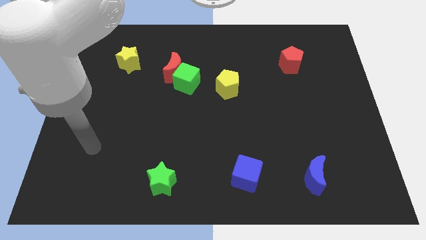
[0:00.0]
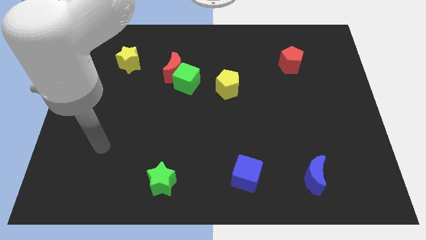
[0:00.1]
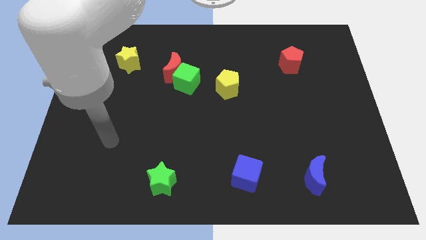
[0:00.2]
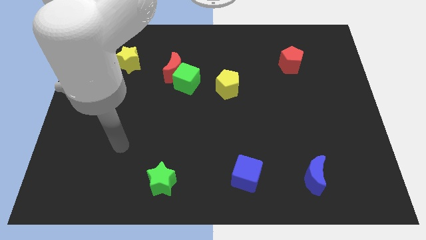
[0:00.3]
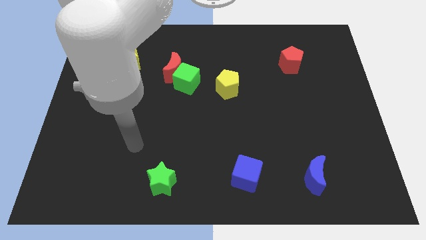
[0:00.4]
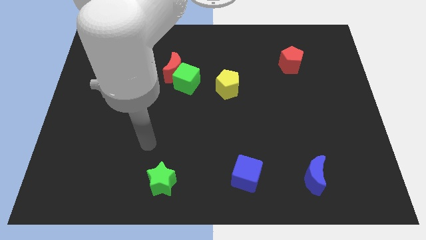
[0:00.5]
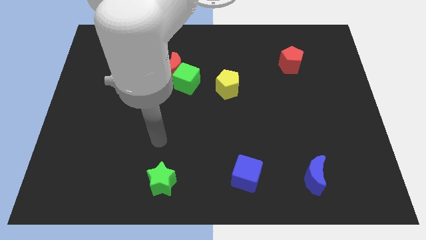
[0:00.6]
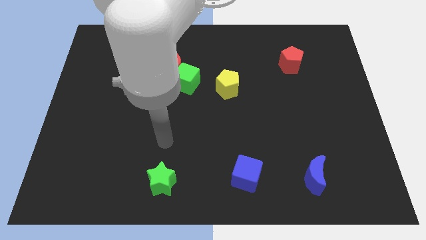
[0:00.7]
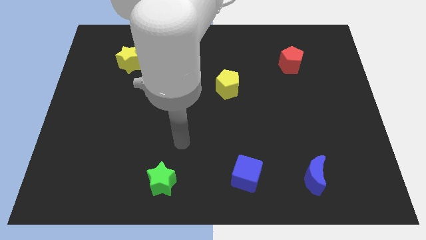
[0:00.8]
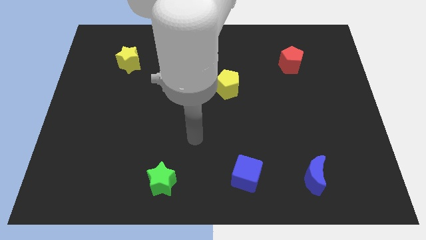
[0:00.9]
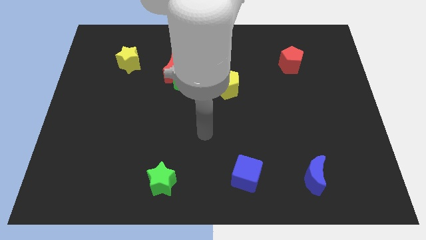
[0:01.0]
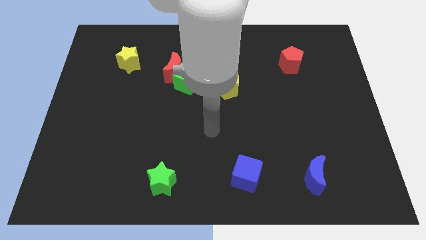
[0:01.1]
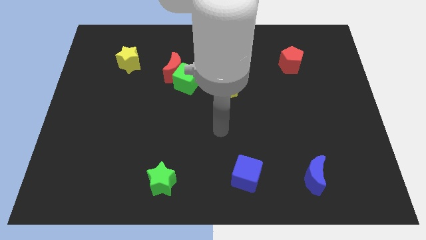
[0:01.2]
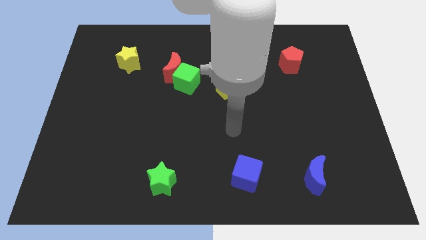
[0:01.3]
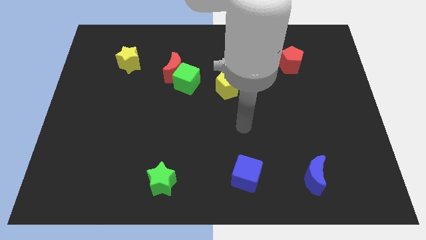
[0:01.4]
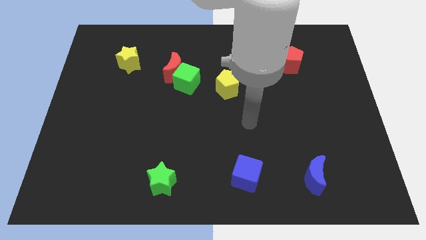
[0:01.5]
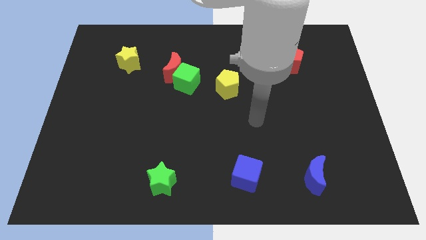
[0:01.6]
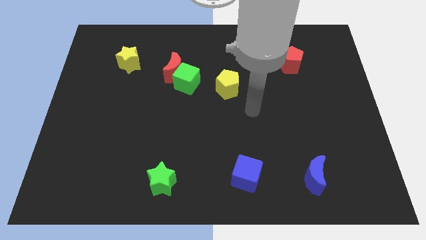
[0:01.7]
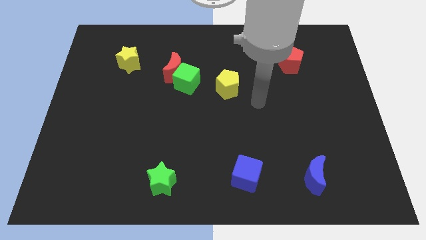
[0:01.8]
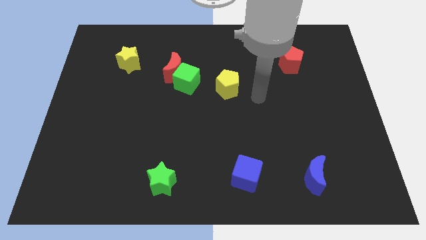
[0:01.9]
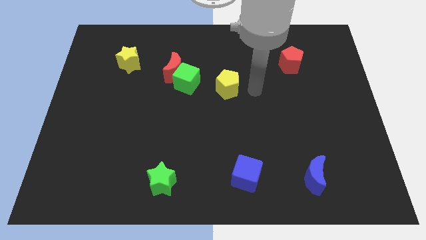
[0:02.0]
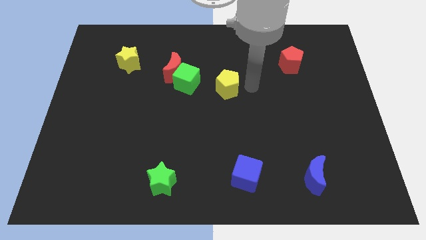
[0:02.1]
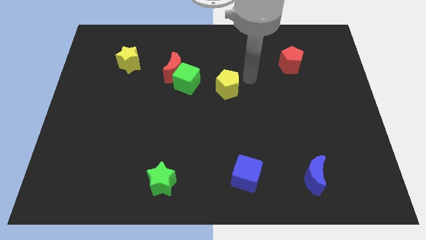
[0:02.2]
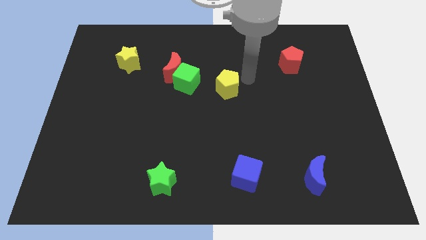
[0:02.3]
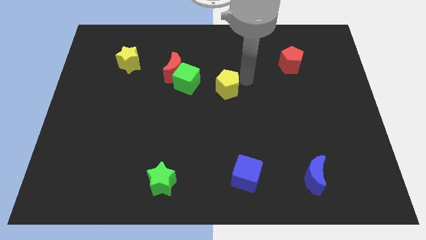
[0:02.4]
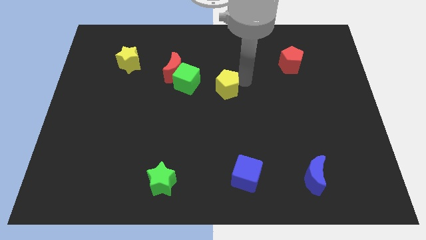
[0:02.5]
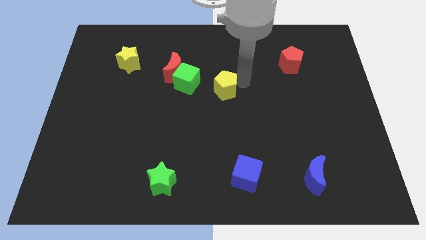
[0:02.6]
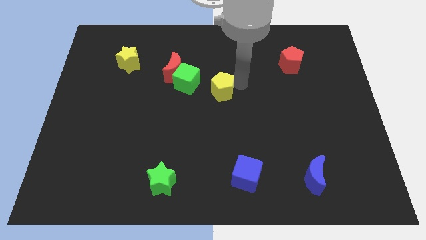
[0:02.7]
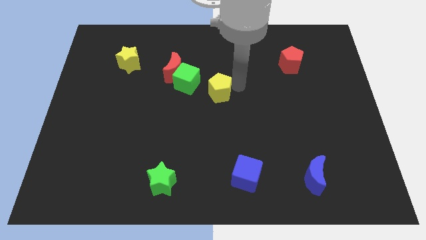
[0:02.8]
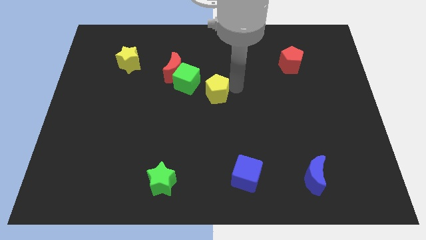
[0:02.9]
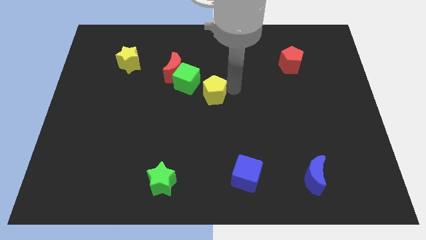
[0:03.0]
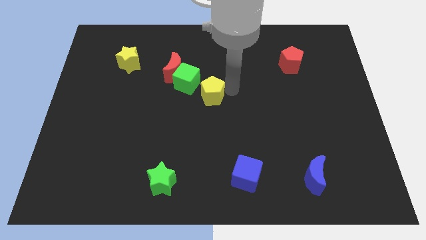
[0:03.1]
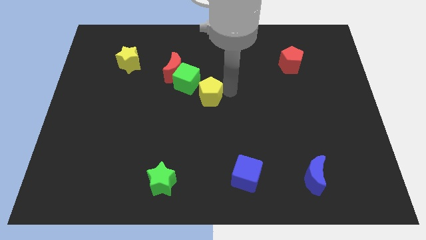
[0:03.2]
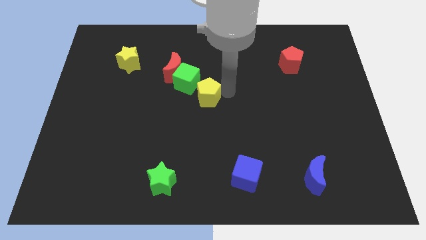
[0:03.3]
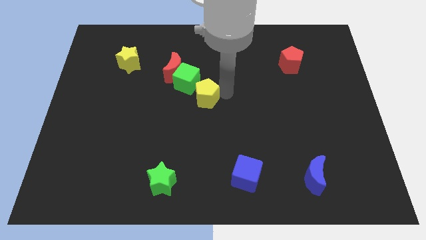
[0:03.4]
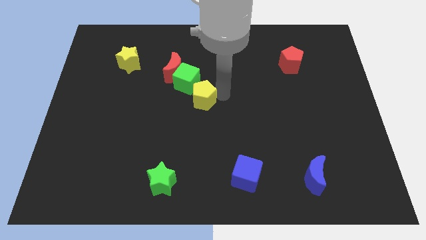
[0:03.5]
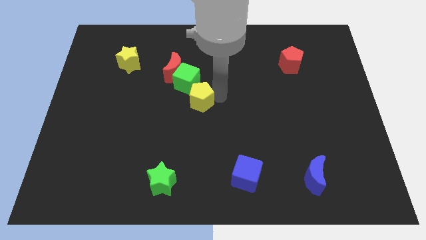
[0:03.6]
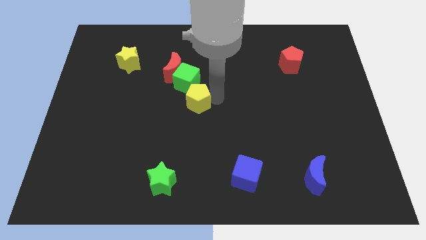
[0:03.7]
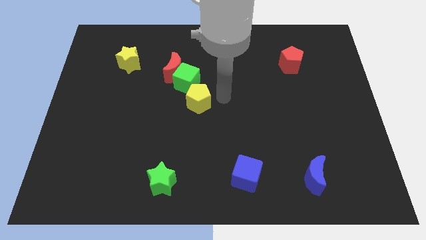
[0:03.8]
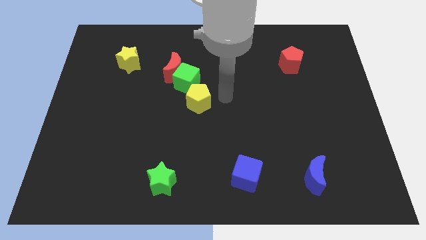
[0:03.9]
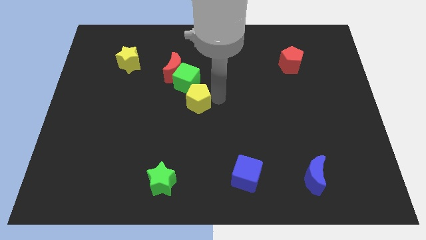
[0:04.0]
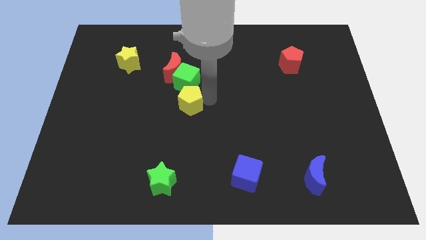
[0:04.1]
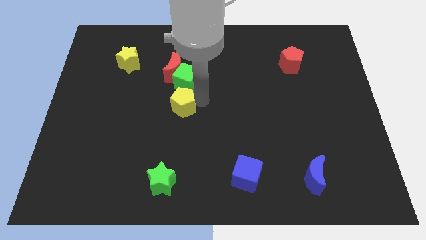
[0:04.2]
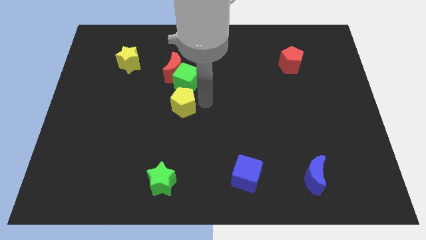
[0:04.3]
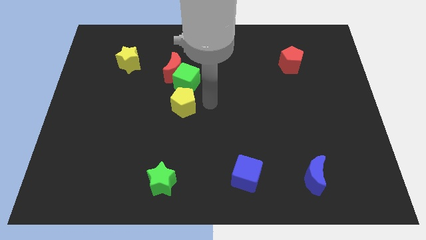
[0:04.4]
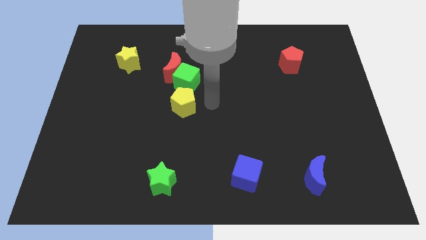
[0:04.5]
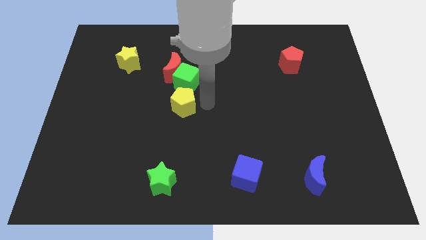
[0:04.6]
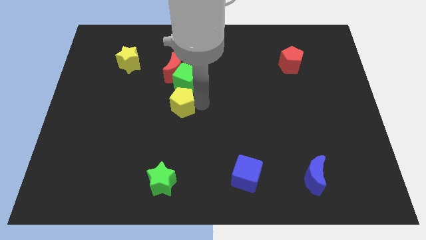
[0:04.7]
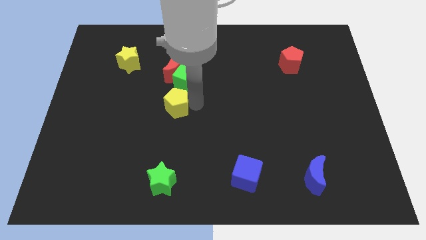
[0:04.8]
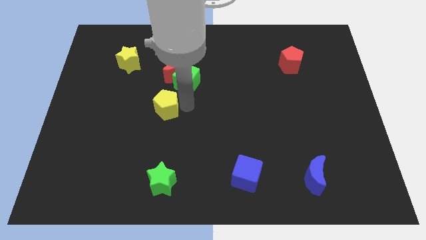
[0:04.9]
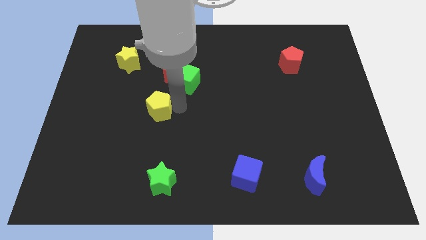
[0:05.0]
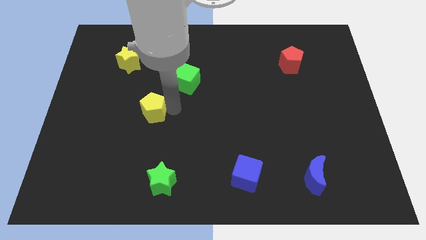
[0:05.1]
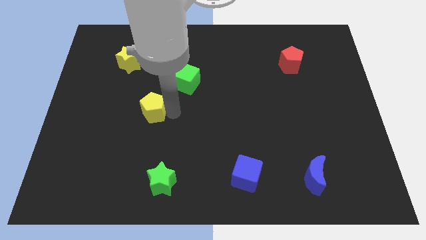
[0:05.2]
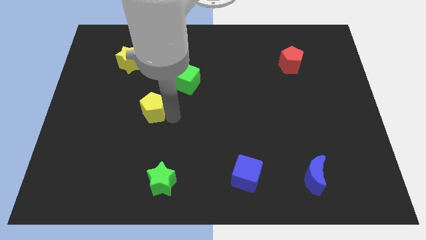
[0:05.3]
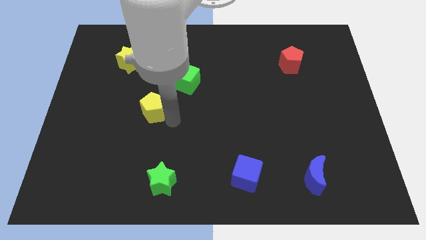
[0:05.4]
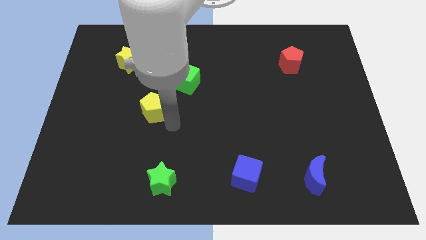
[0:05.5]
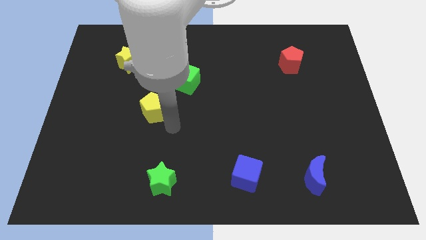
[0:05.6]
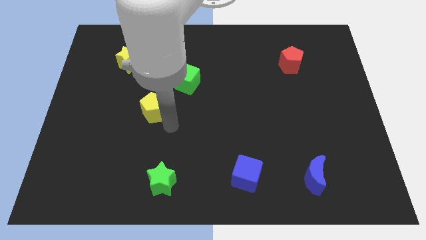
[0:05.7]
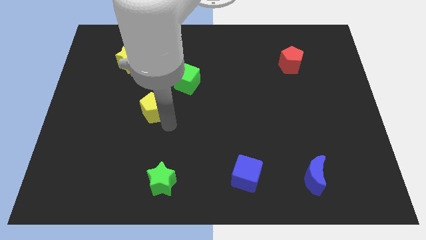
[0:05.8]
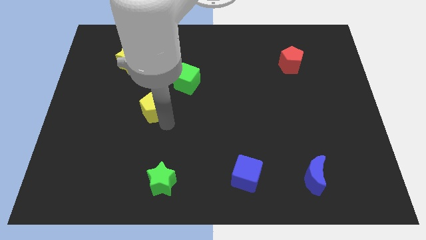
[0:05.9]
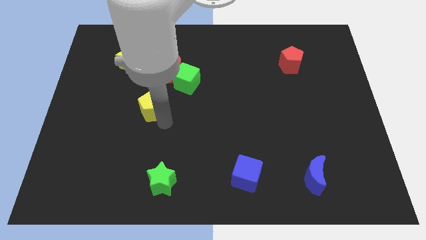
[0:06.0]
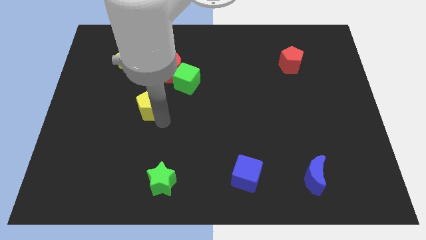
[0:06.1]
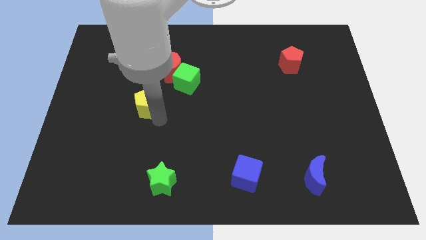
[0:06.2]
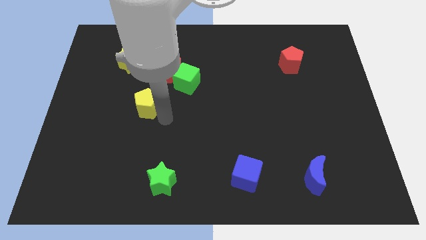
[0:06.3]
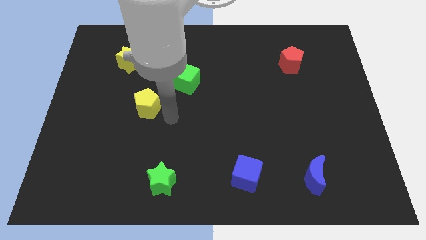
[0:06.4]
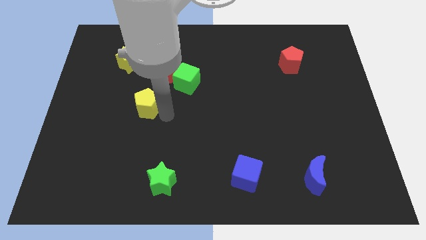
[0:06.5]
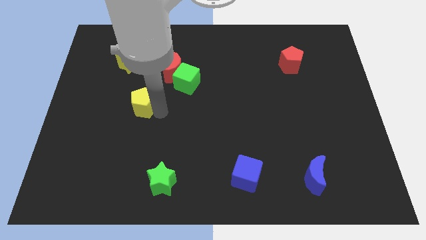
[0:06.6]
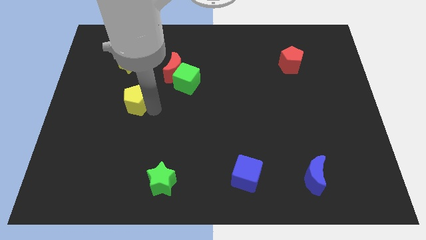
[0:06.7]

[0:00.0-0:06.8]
put the yellow pentagon to the bottom of the yellow star
